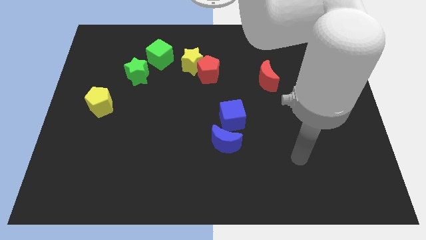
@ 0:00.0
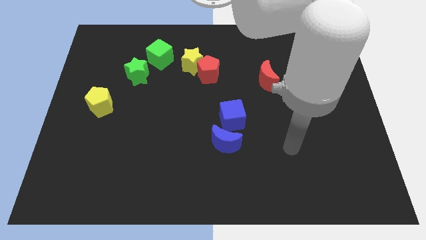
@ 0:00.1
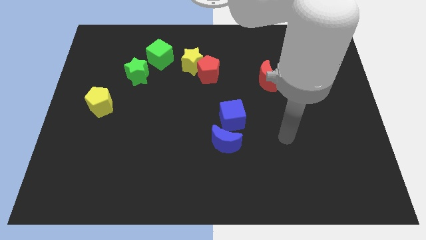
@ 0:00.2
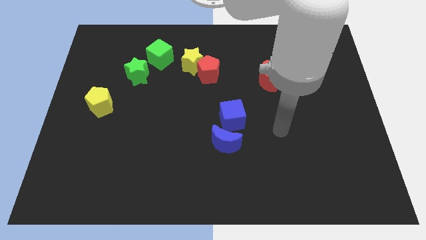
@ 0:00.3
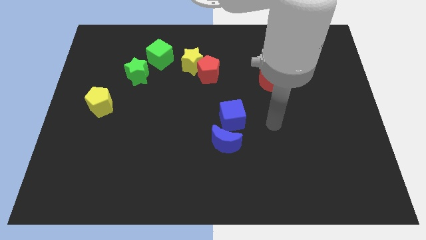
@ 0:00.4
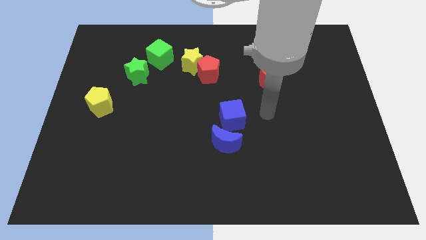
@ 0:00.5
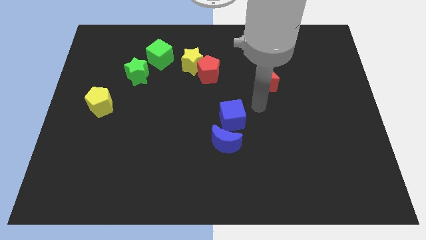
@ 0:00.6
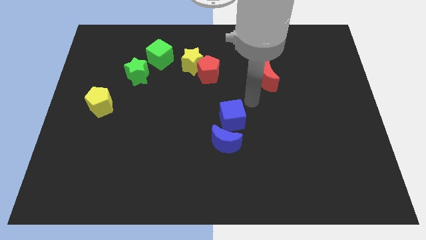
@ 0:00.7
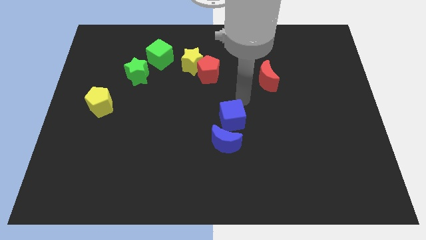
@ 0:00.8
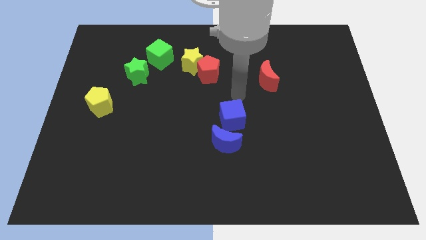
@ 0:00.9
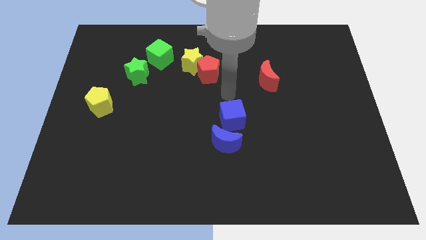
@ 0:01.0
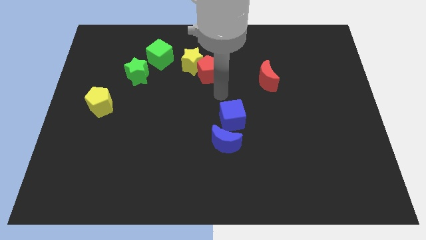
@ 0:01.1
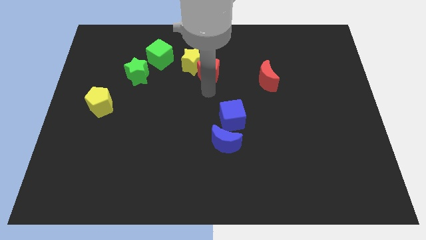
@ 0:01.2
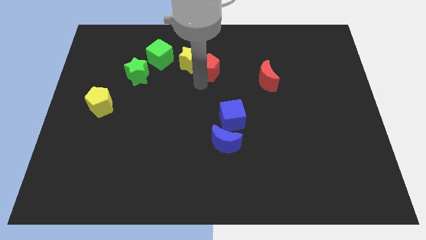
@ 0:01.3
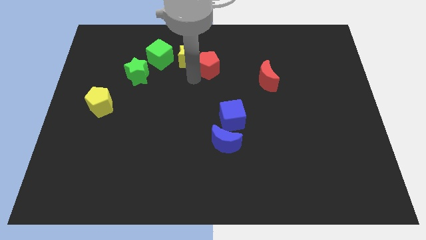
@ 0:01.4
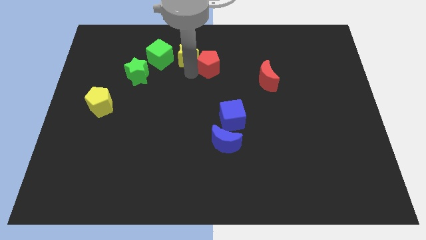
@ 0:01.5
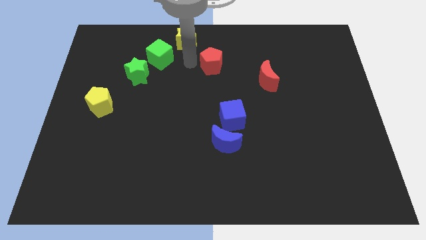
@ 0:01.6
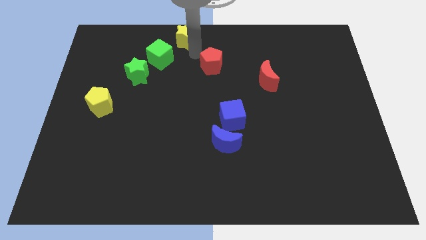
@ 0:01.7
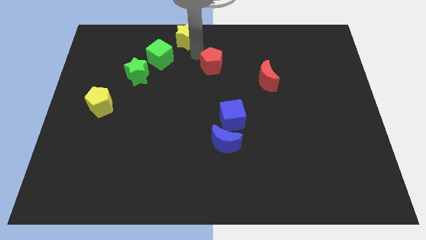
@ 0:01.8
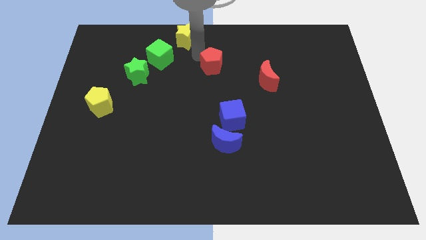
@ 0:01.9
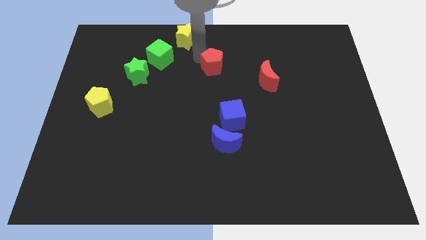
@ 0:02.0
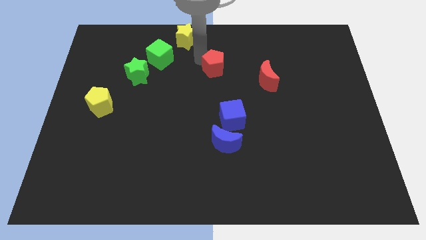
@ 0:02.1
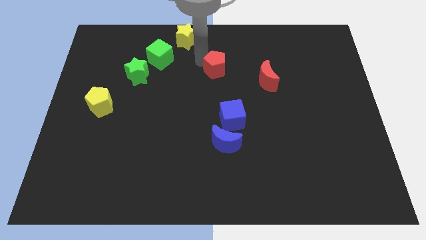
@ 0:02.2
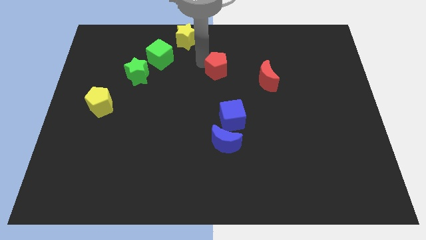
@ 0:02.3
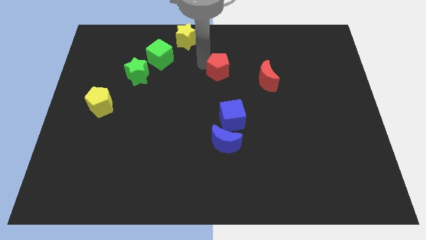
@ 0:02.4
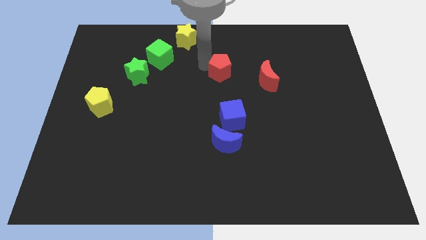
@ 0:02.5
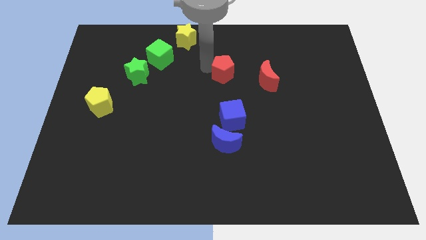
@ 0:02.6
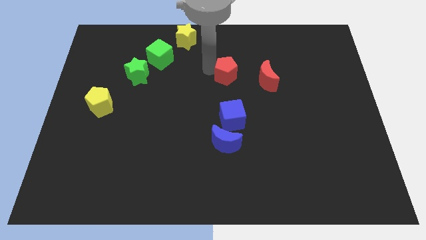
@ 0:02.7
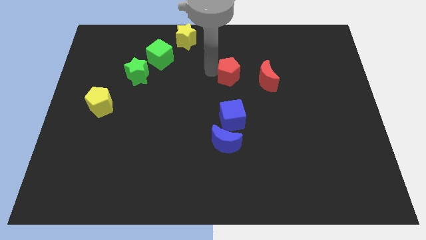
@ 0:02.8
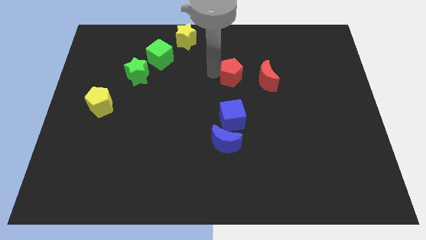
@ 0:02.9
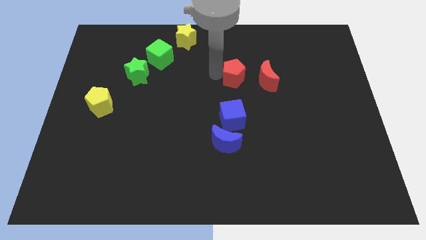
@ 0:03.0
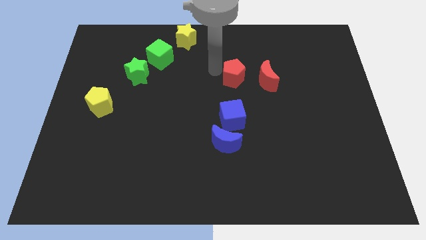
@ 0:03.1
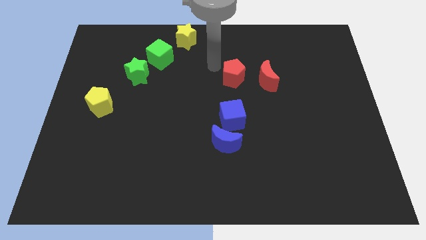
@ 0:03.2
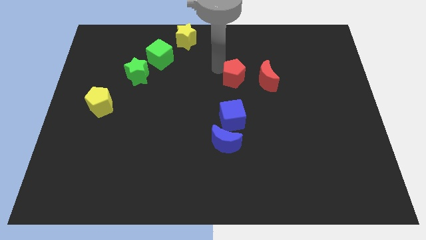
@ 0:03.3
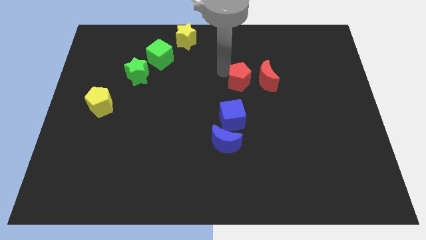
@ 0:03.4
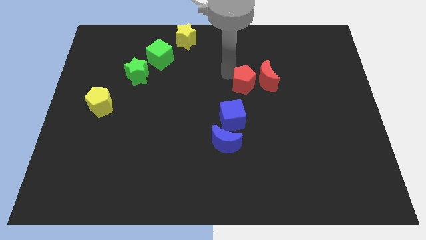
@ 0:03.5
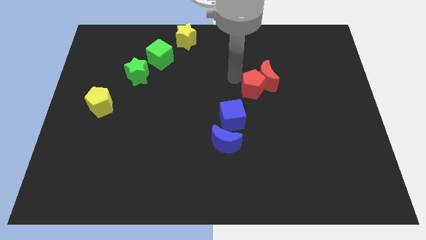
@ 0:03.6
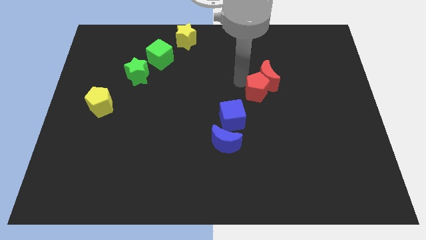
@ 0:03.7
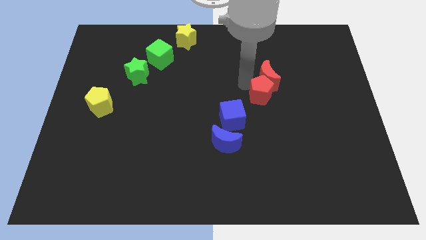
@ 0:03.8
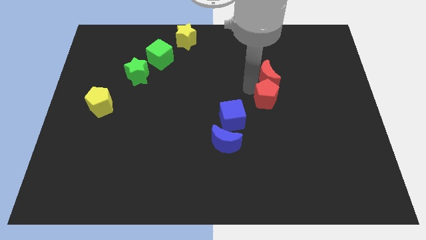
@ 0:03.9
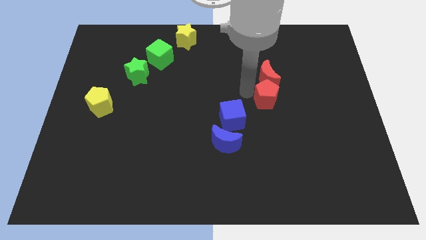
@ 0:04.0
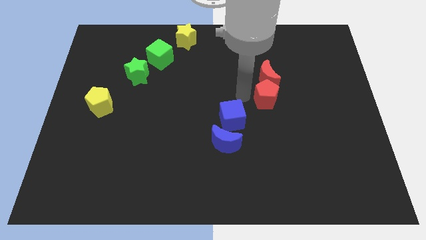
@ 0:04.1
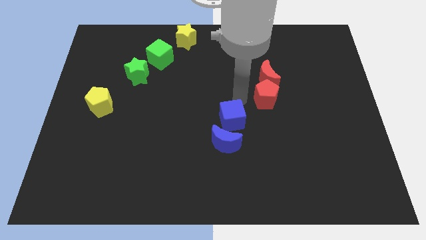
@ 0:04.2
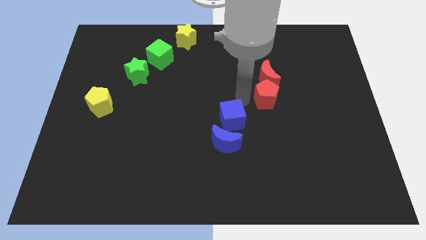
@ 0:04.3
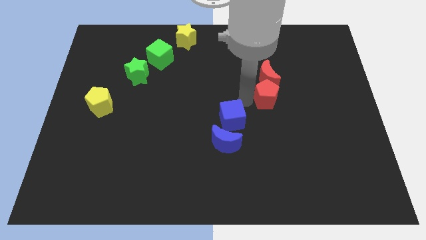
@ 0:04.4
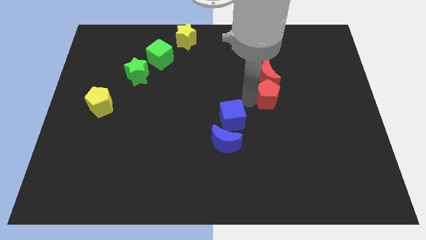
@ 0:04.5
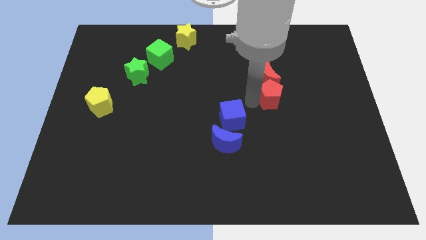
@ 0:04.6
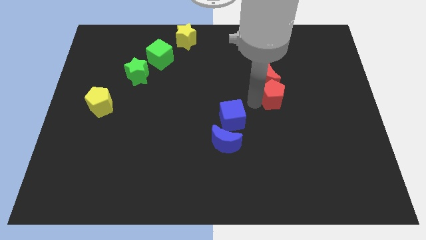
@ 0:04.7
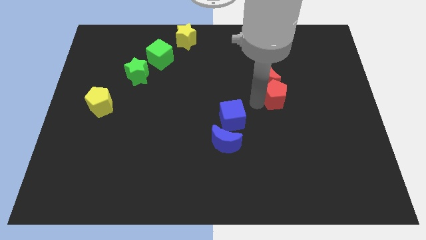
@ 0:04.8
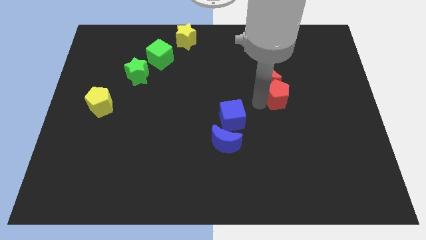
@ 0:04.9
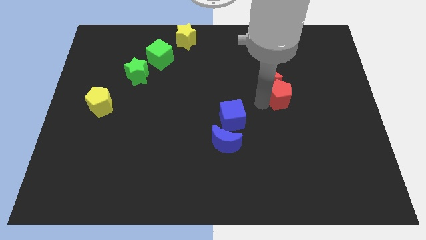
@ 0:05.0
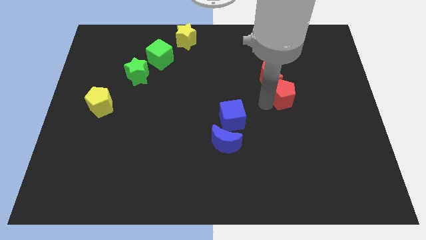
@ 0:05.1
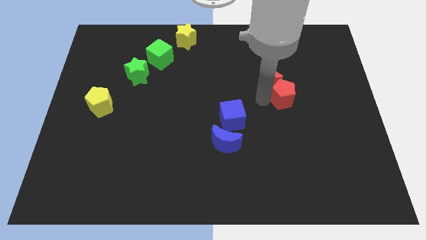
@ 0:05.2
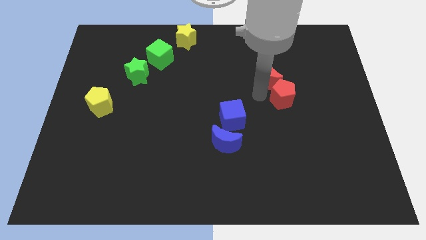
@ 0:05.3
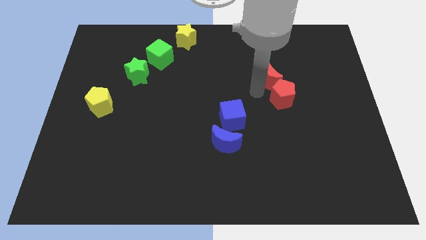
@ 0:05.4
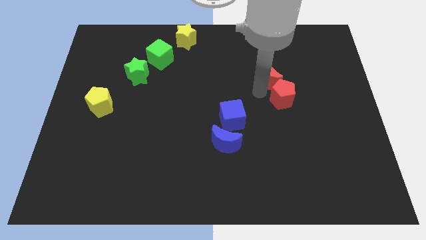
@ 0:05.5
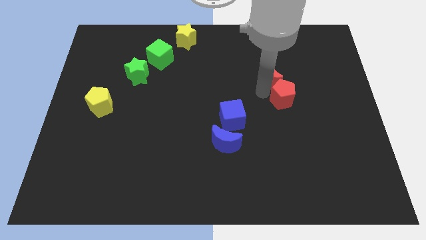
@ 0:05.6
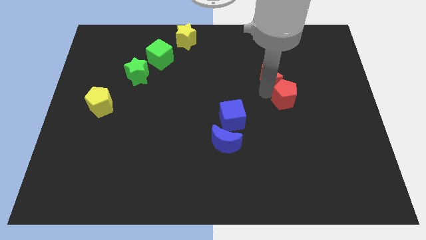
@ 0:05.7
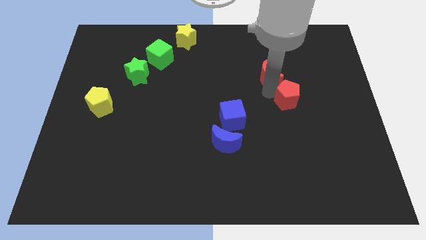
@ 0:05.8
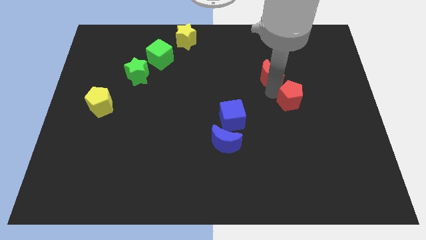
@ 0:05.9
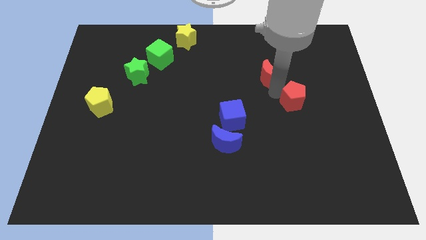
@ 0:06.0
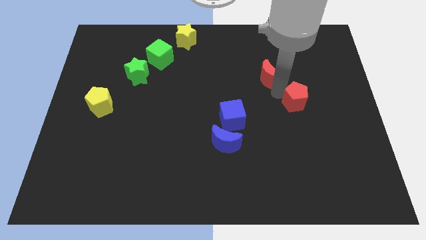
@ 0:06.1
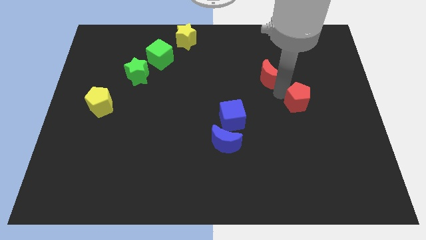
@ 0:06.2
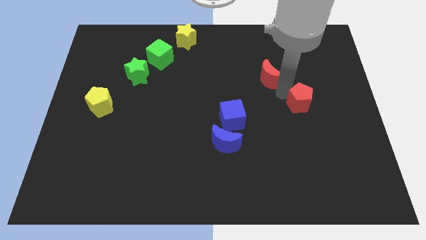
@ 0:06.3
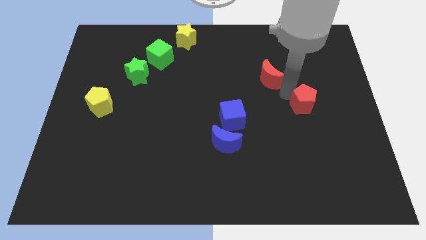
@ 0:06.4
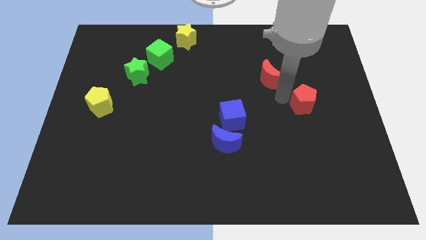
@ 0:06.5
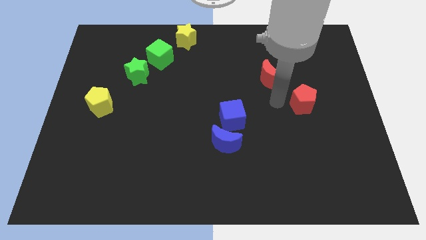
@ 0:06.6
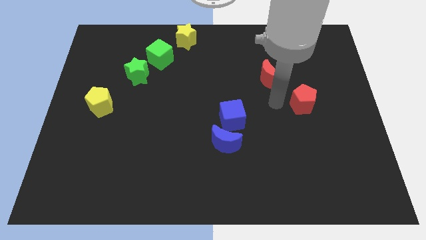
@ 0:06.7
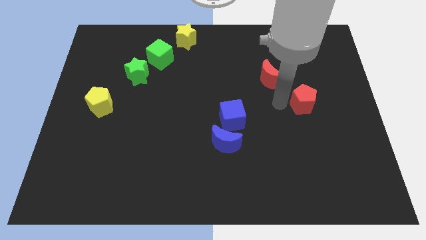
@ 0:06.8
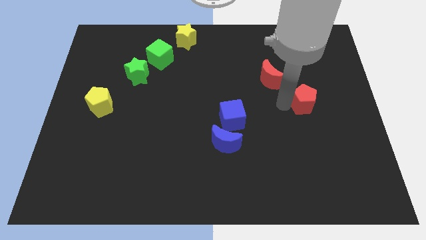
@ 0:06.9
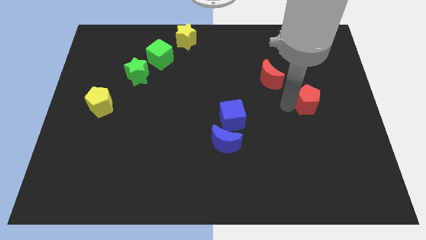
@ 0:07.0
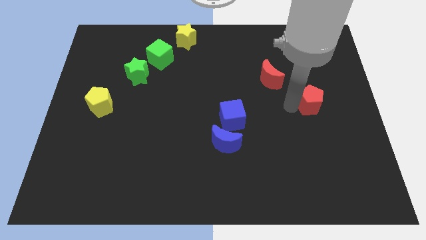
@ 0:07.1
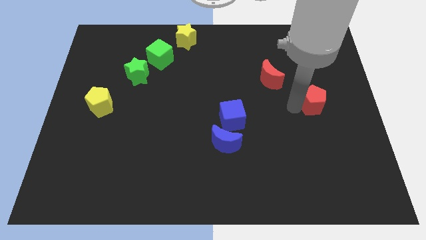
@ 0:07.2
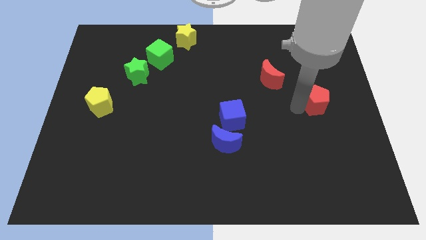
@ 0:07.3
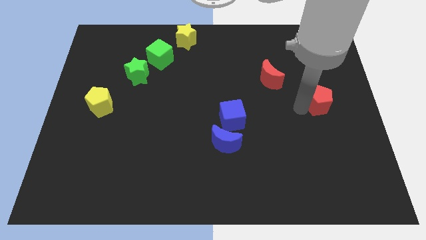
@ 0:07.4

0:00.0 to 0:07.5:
put the red pentagon to the right side of the board
